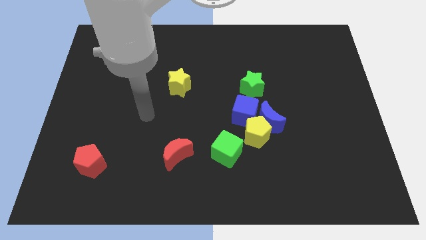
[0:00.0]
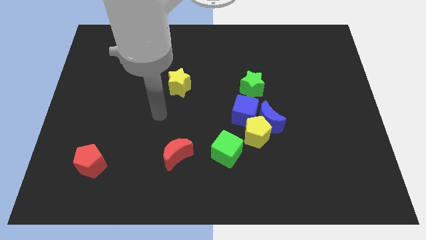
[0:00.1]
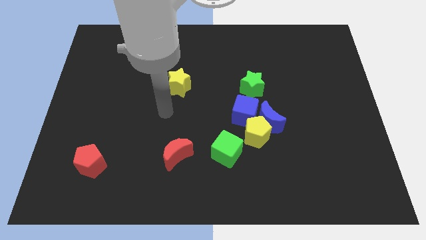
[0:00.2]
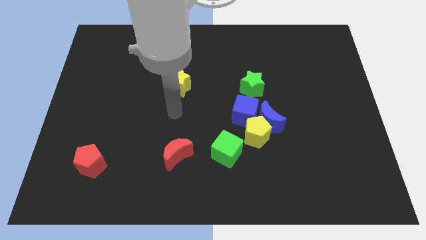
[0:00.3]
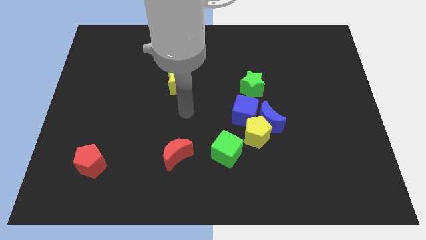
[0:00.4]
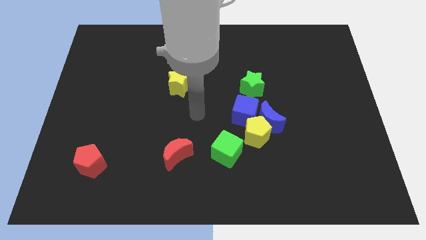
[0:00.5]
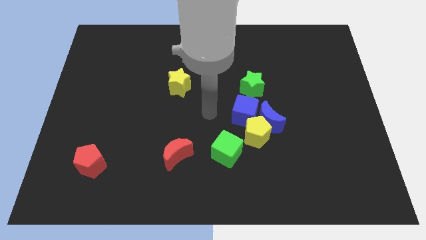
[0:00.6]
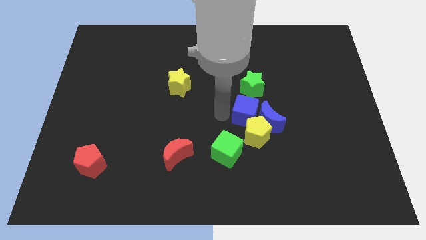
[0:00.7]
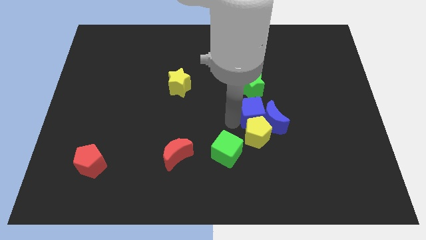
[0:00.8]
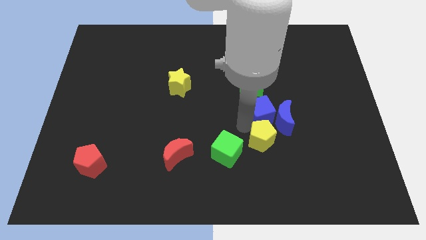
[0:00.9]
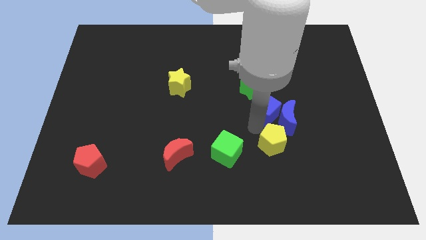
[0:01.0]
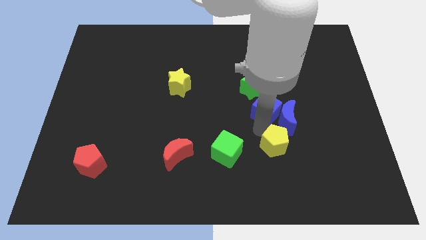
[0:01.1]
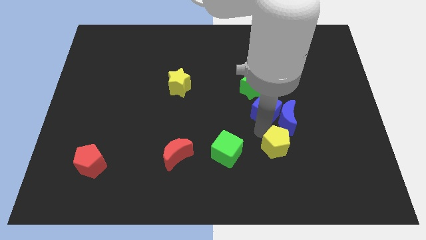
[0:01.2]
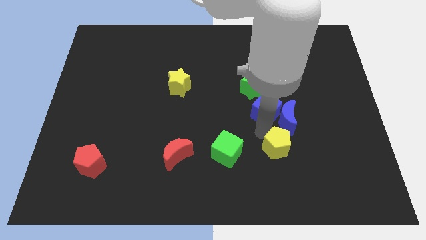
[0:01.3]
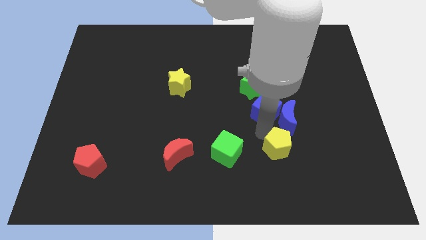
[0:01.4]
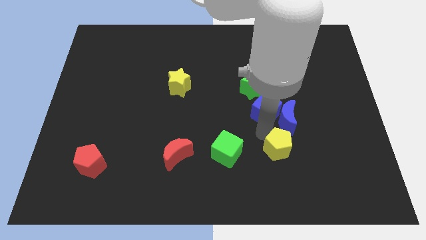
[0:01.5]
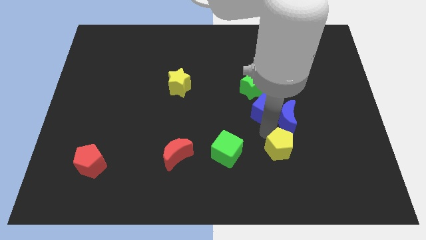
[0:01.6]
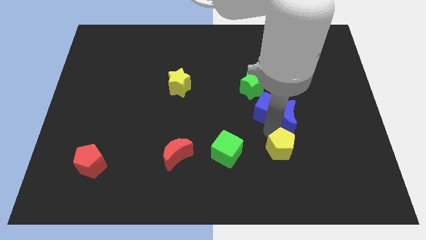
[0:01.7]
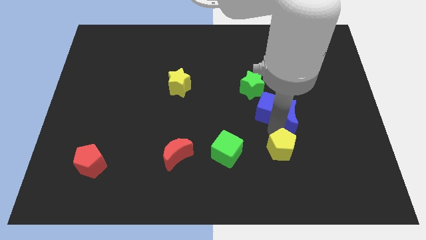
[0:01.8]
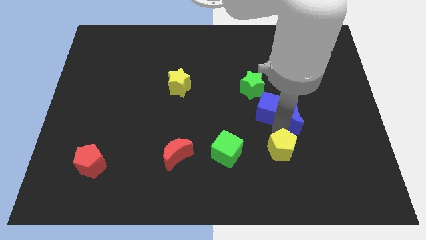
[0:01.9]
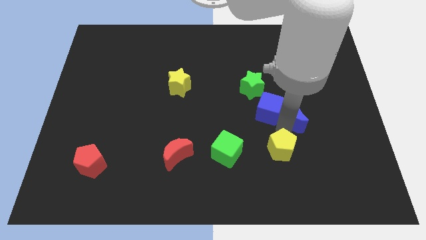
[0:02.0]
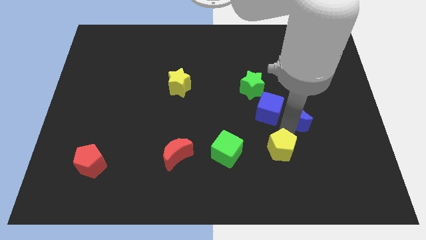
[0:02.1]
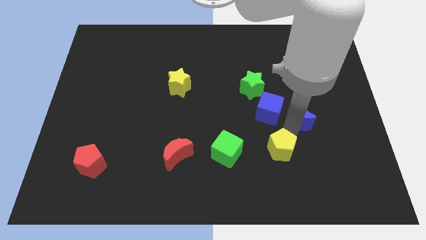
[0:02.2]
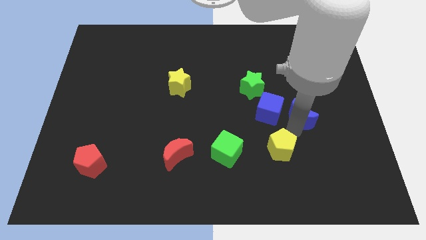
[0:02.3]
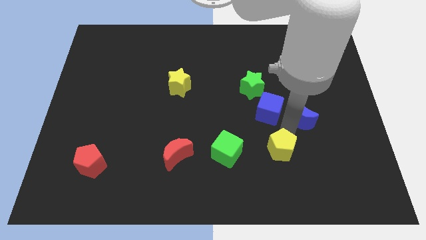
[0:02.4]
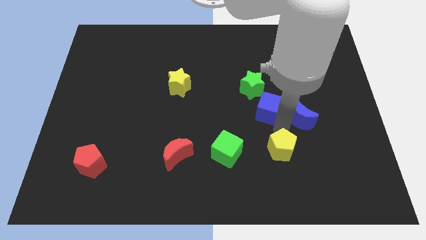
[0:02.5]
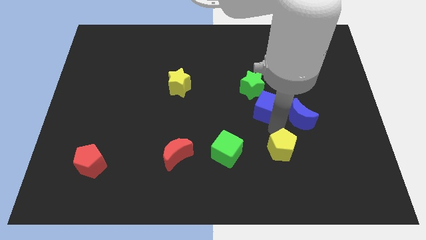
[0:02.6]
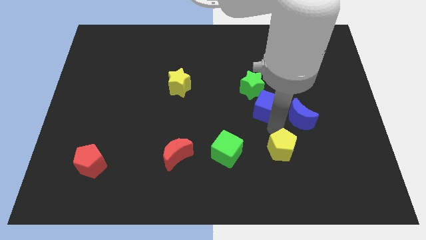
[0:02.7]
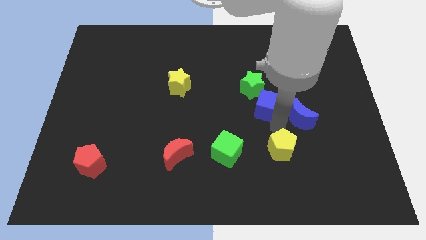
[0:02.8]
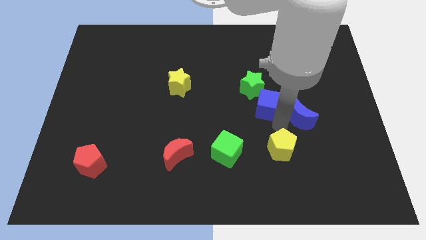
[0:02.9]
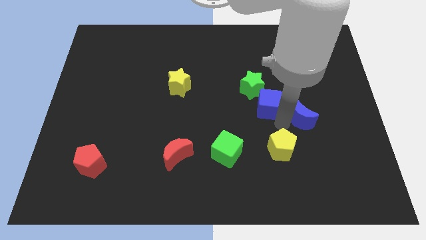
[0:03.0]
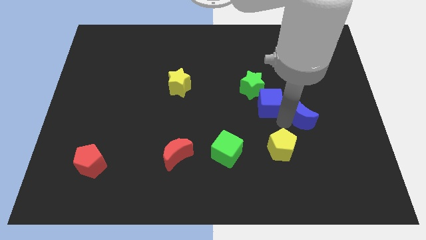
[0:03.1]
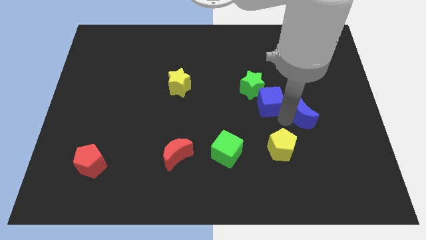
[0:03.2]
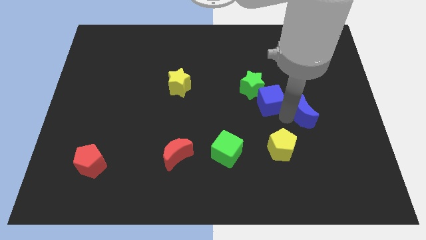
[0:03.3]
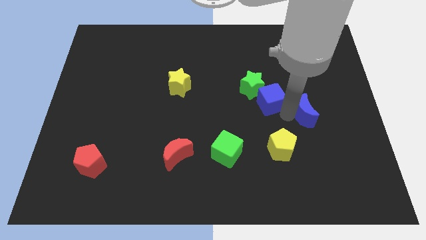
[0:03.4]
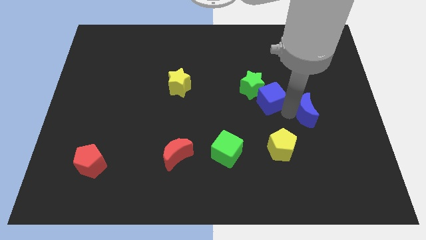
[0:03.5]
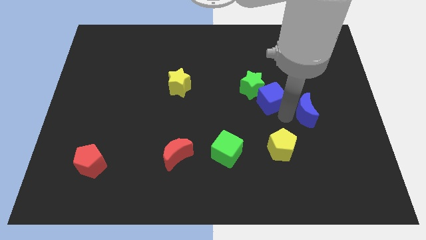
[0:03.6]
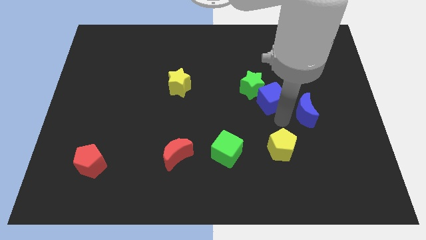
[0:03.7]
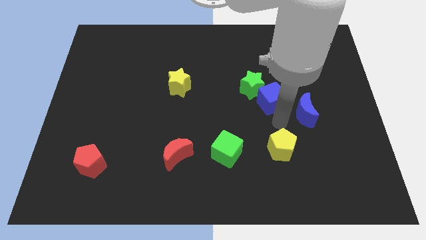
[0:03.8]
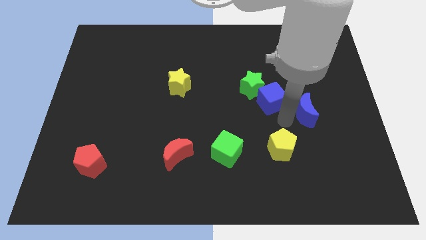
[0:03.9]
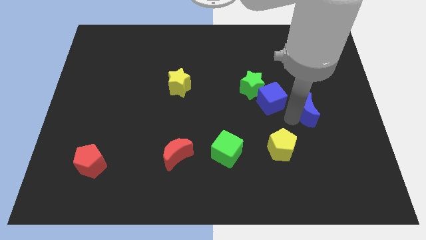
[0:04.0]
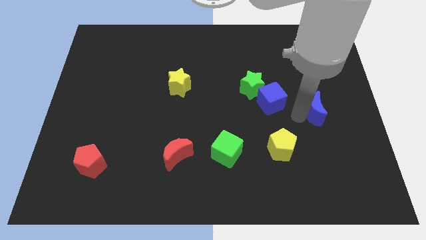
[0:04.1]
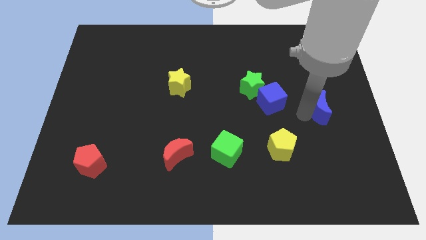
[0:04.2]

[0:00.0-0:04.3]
move the blue moon away from the yellow pentagon and blue cube

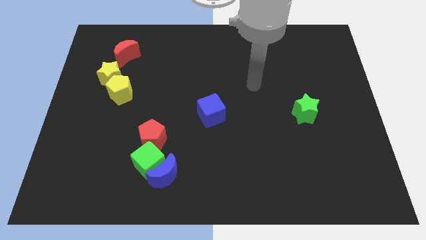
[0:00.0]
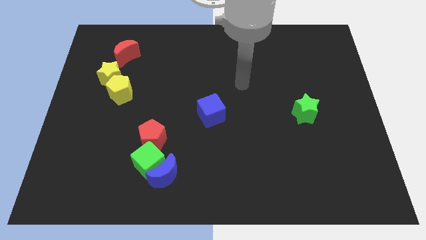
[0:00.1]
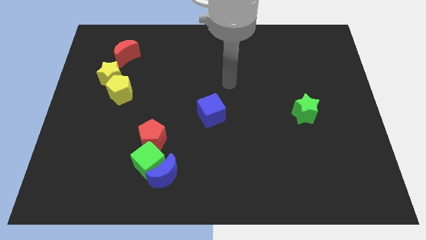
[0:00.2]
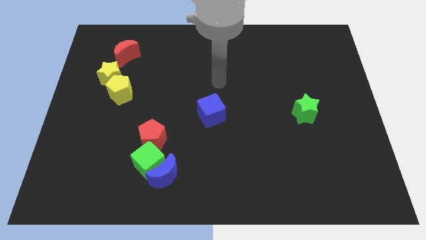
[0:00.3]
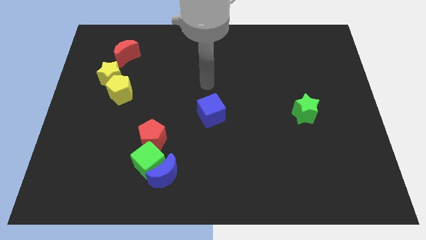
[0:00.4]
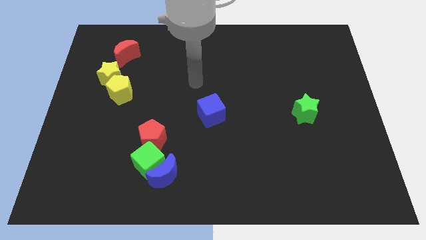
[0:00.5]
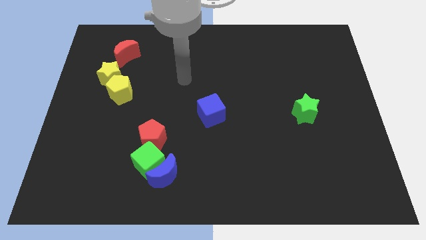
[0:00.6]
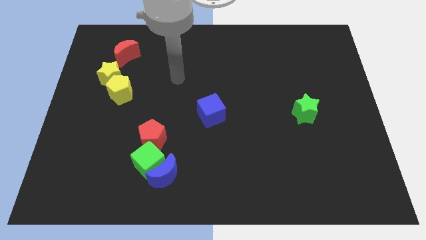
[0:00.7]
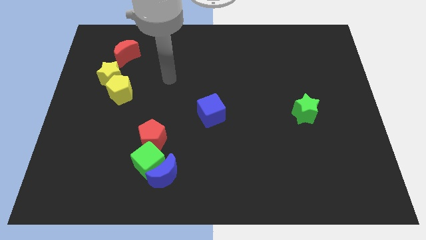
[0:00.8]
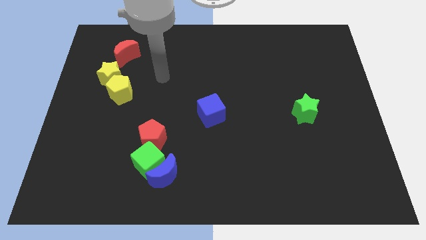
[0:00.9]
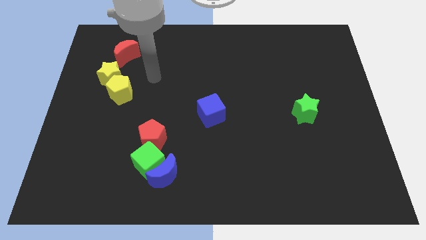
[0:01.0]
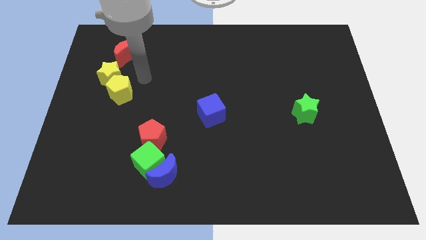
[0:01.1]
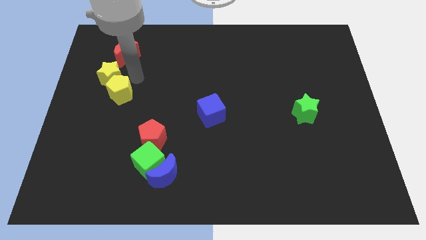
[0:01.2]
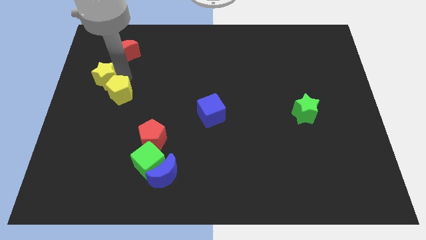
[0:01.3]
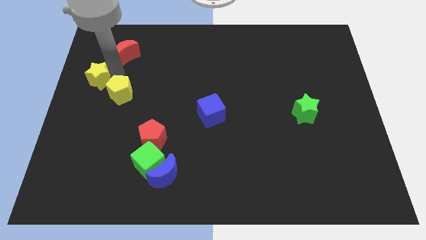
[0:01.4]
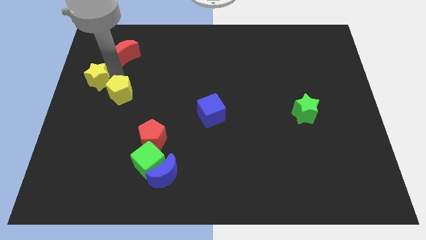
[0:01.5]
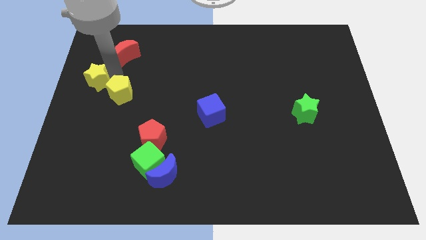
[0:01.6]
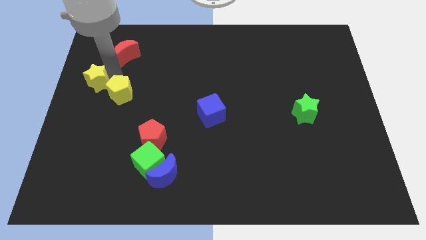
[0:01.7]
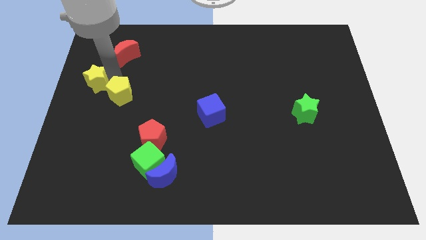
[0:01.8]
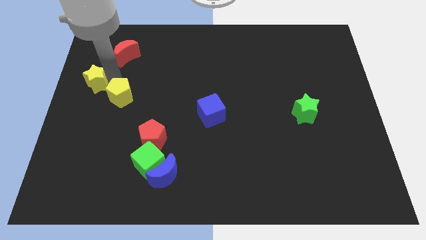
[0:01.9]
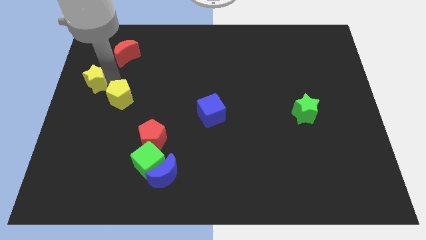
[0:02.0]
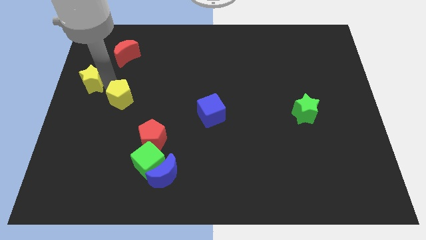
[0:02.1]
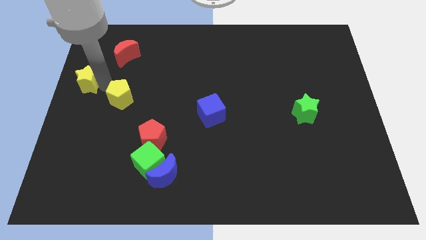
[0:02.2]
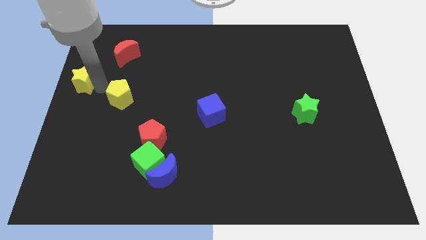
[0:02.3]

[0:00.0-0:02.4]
move the yellow pentagon away from the yellow star

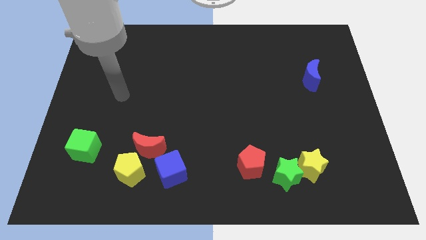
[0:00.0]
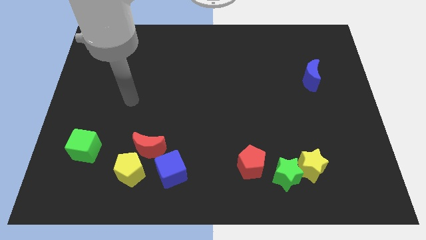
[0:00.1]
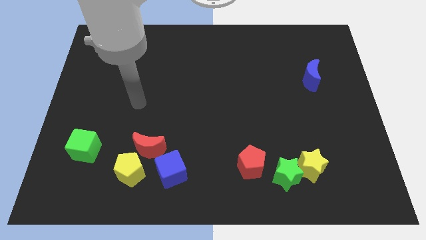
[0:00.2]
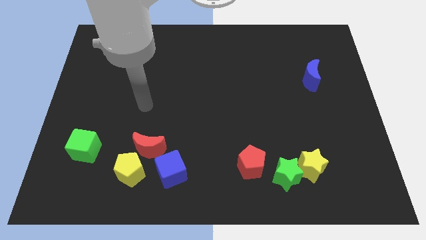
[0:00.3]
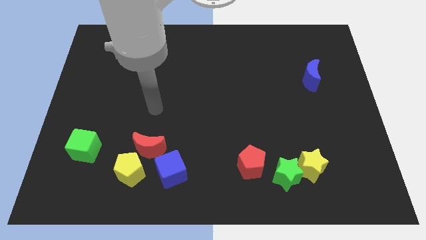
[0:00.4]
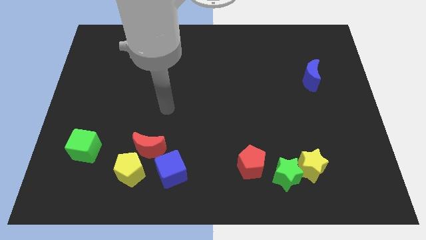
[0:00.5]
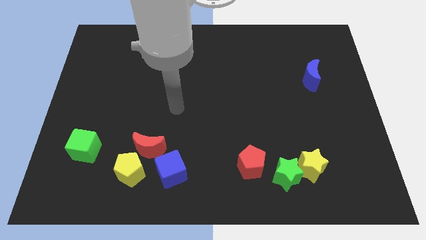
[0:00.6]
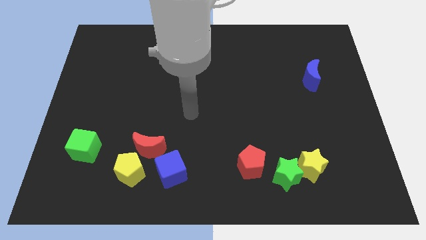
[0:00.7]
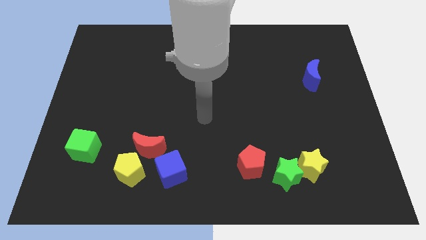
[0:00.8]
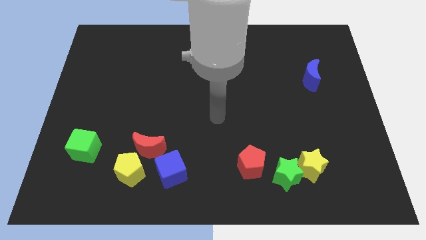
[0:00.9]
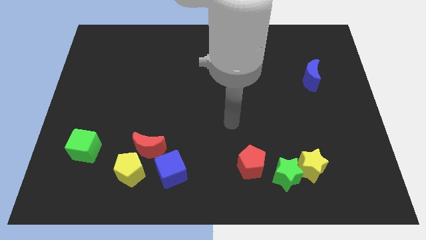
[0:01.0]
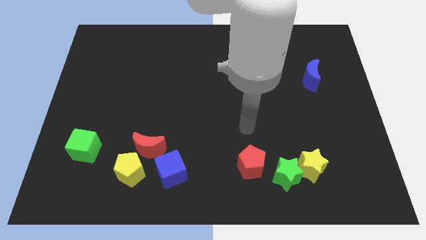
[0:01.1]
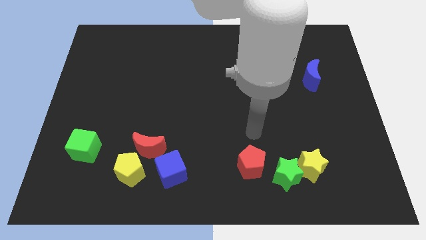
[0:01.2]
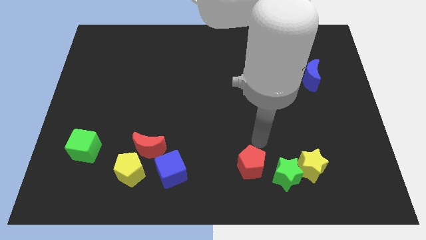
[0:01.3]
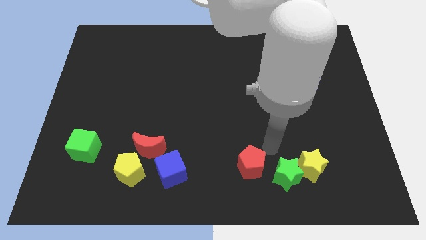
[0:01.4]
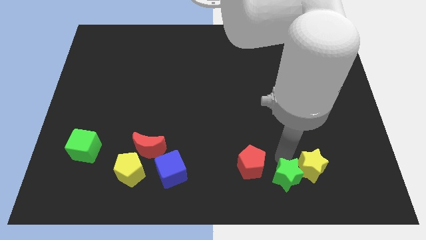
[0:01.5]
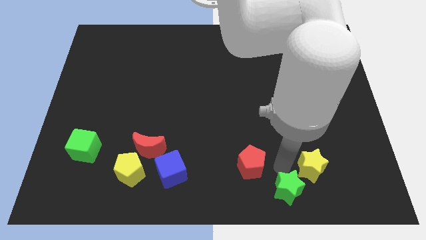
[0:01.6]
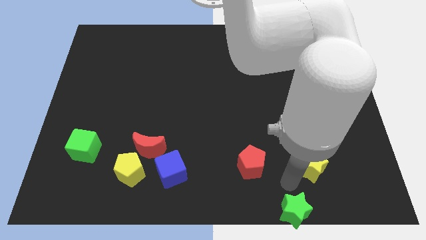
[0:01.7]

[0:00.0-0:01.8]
separate the yellow star from the green star

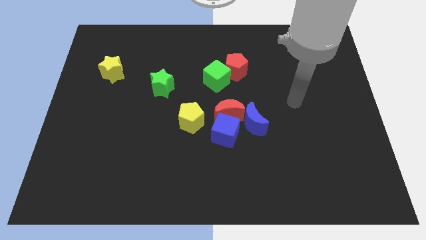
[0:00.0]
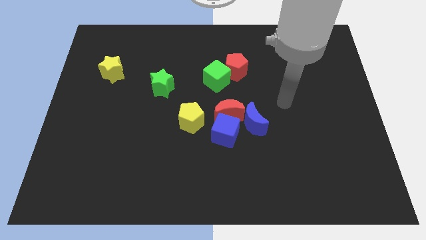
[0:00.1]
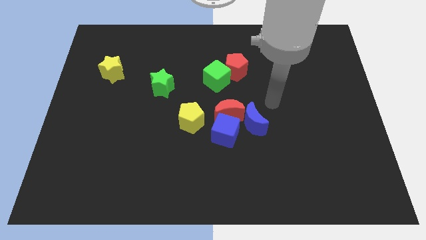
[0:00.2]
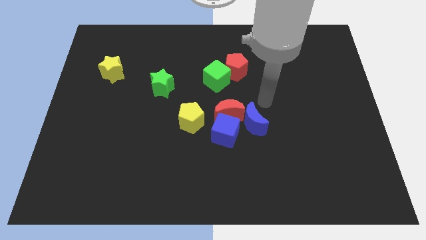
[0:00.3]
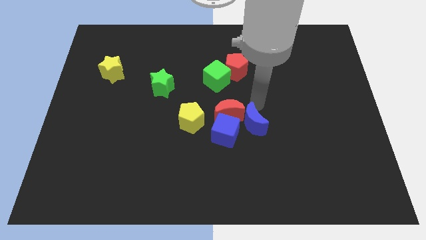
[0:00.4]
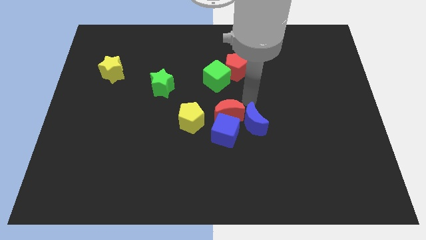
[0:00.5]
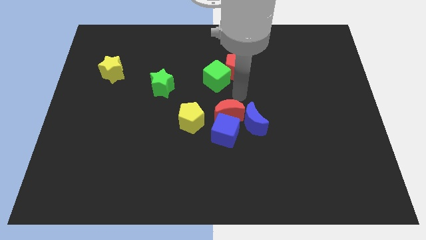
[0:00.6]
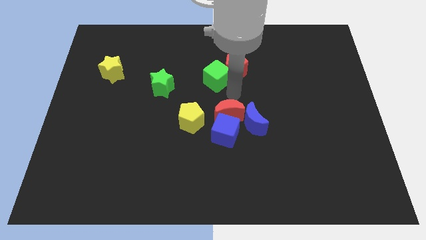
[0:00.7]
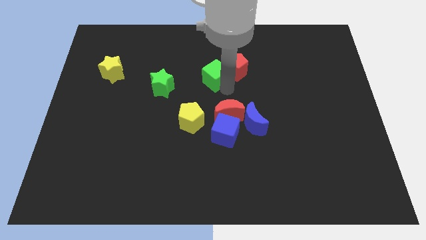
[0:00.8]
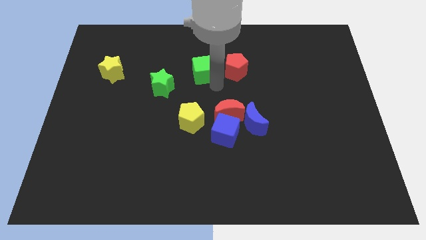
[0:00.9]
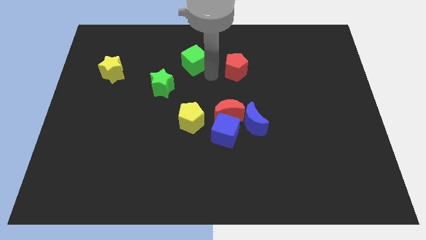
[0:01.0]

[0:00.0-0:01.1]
separate the red pentagon from the green cube
